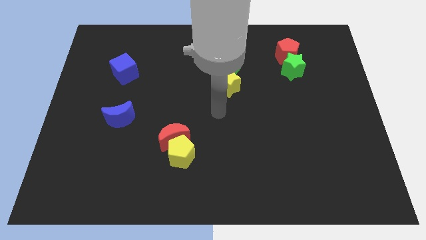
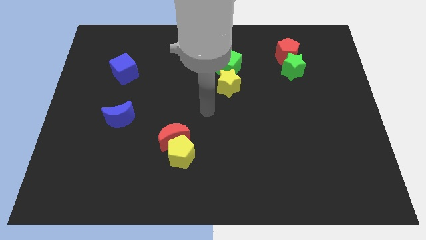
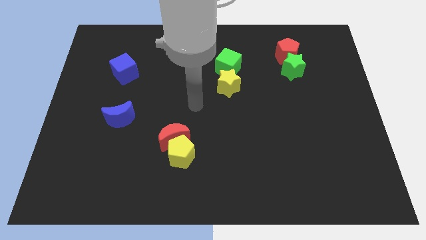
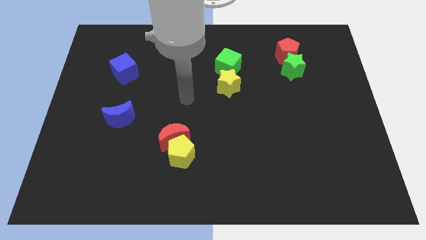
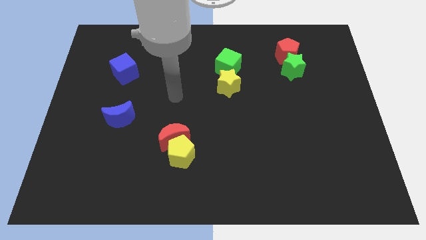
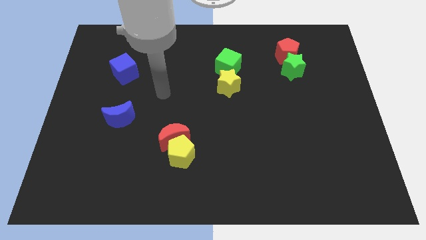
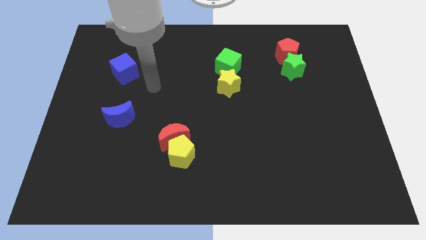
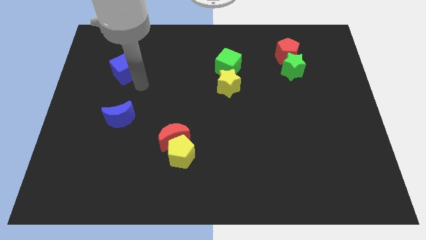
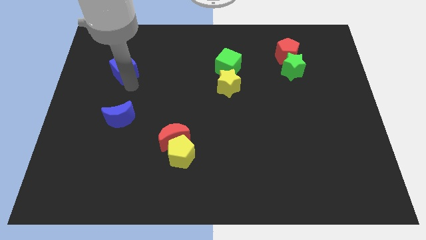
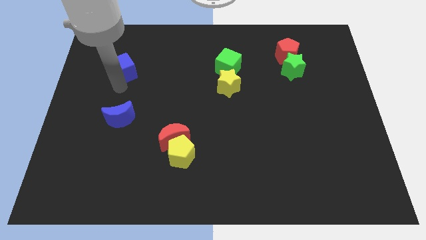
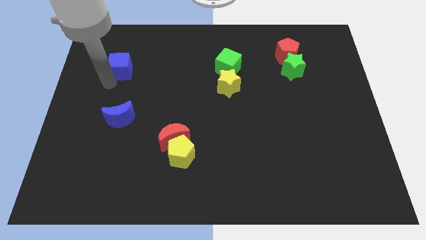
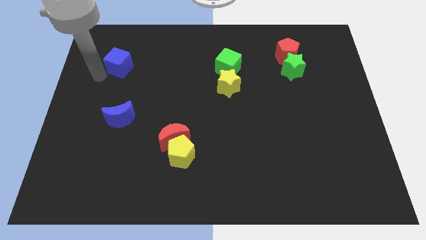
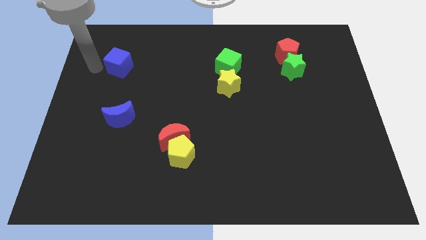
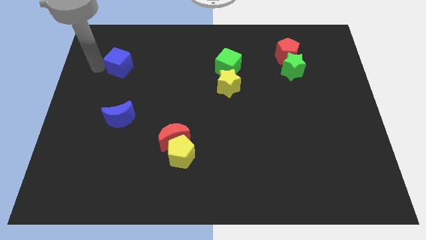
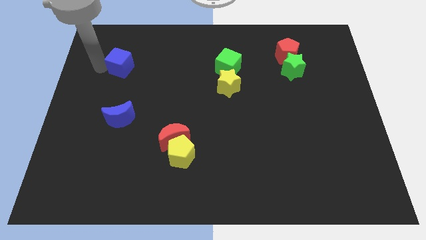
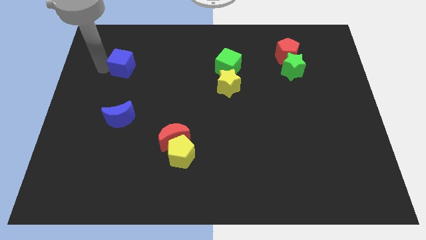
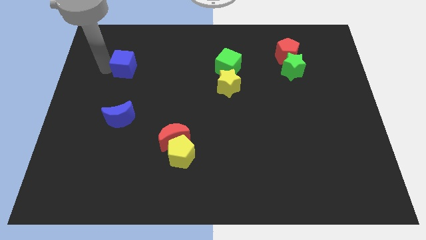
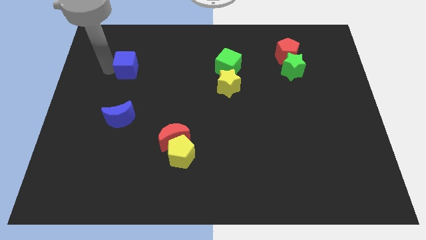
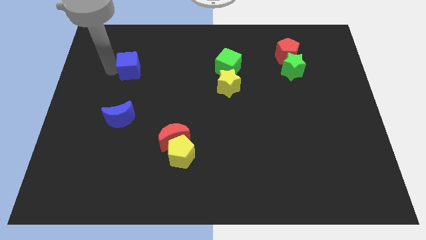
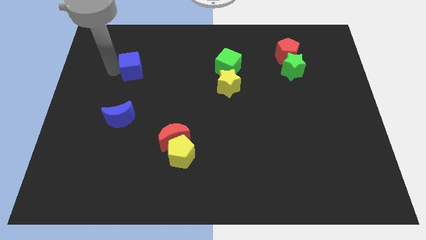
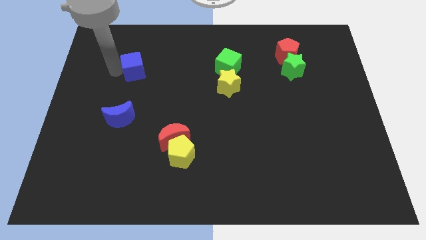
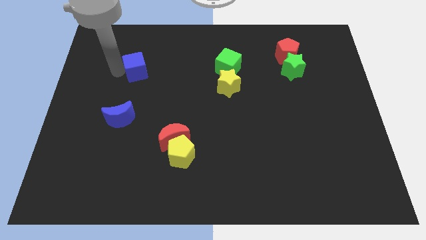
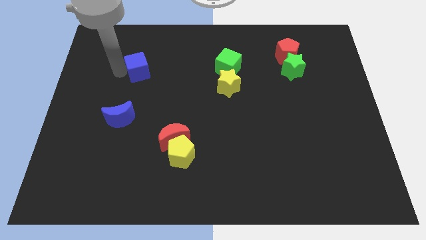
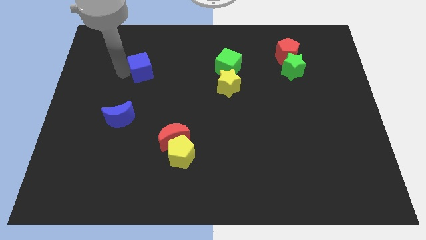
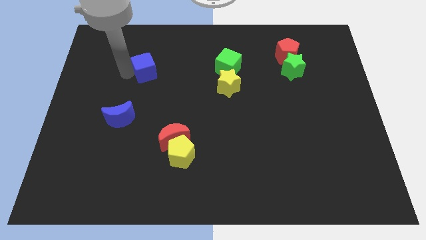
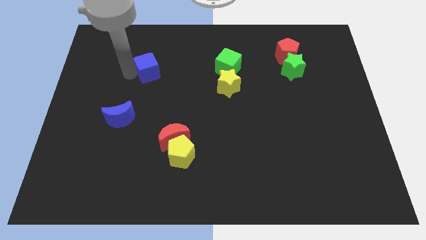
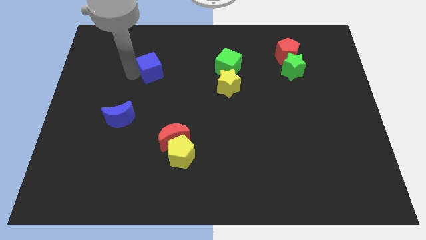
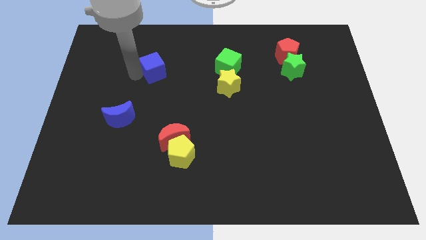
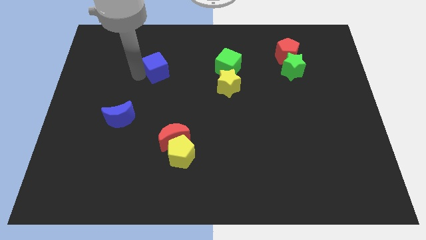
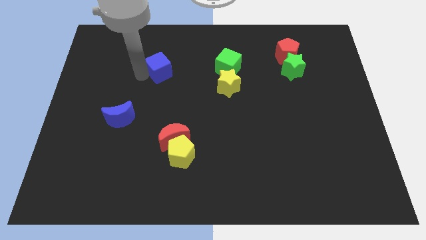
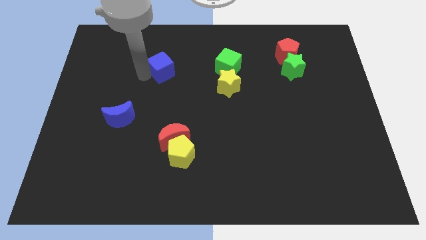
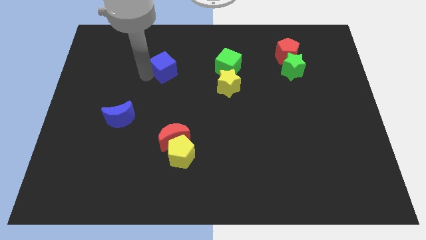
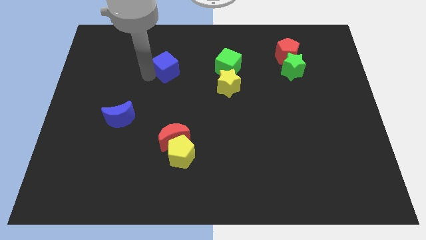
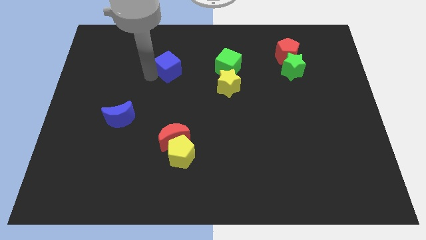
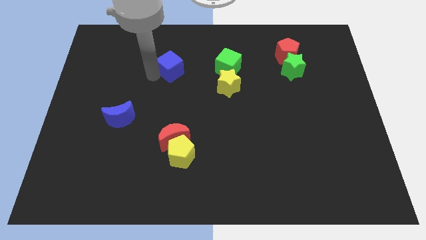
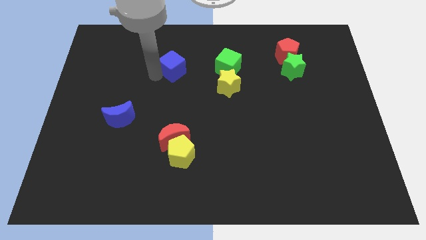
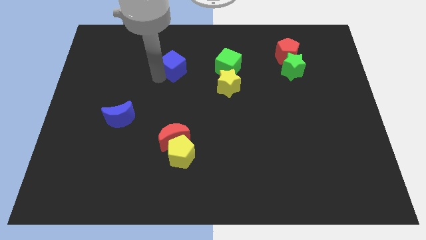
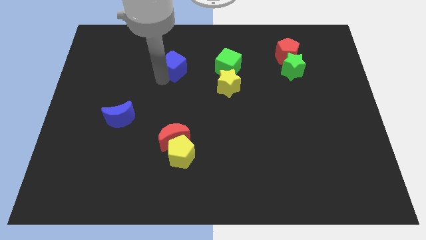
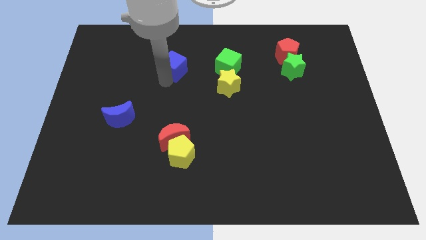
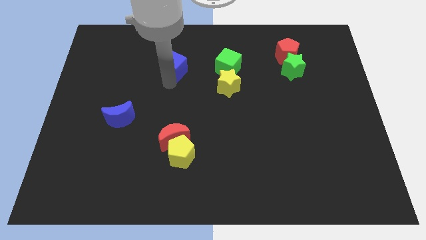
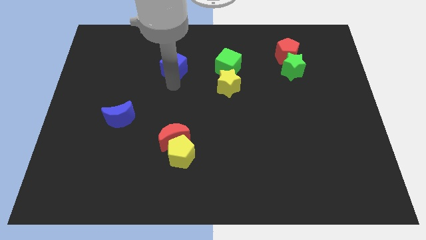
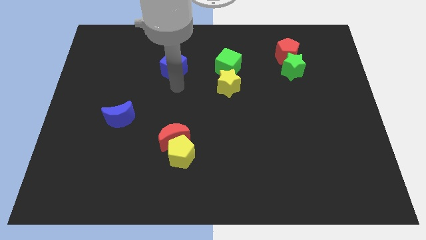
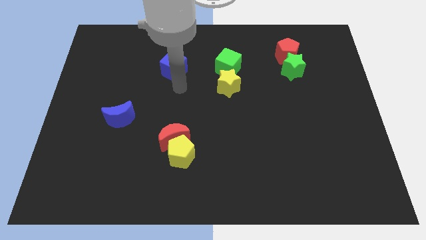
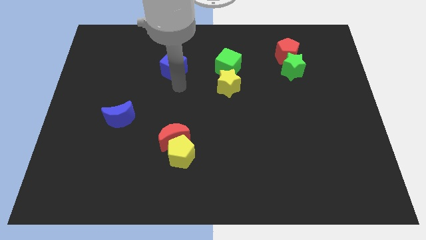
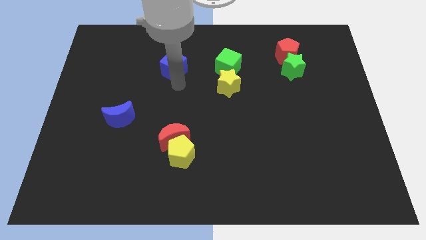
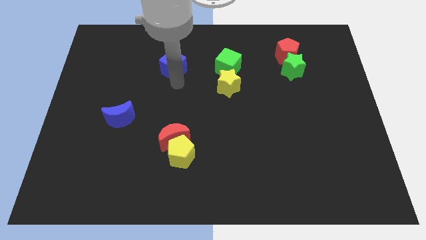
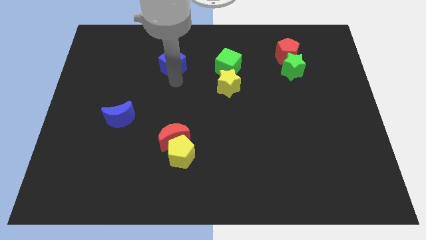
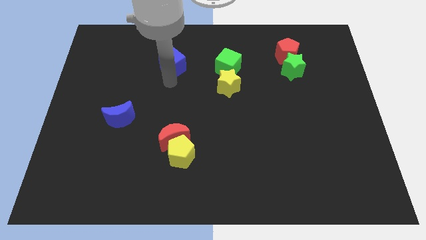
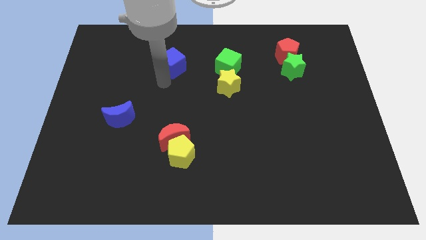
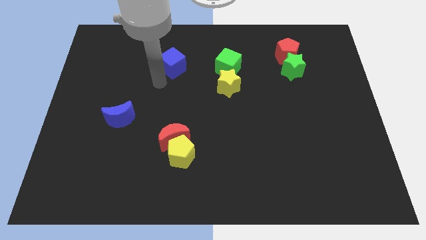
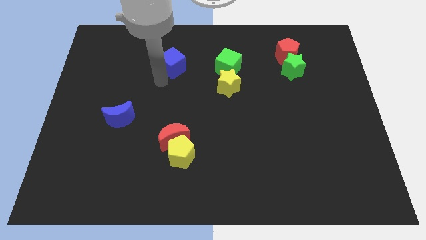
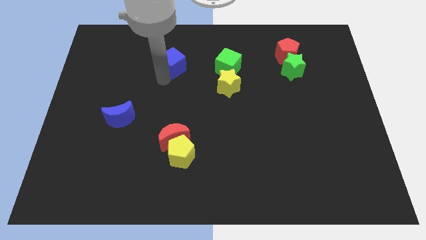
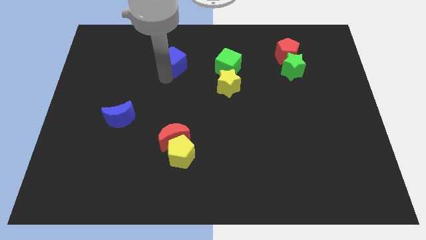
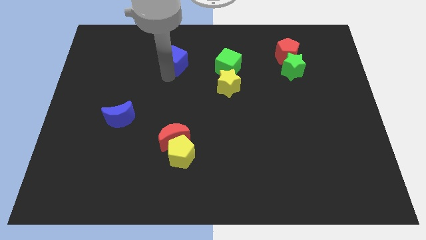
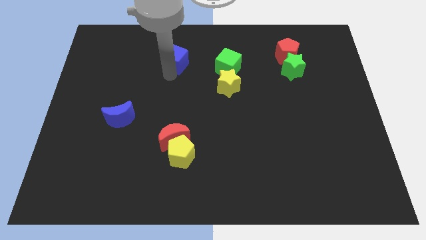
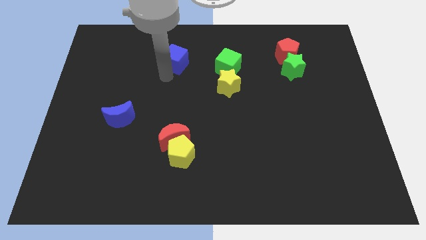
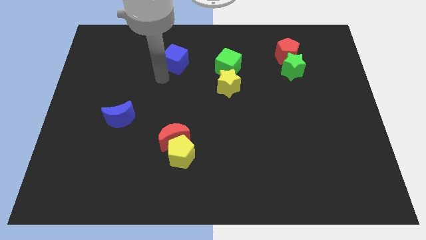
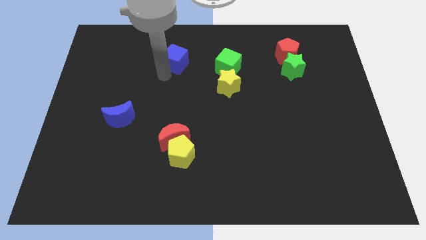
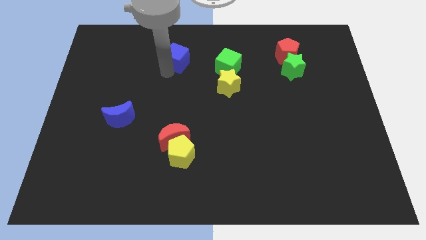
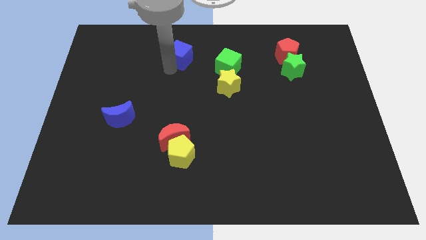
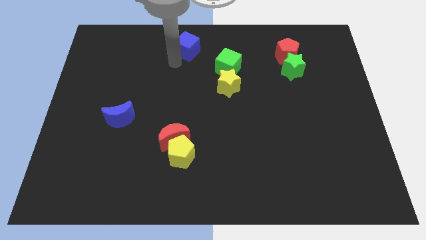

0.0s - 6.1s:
move the blue cube to the top

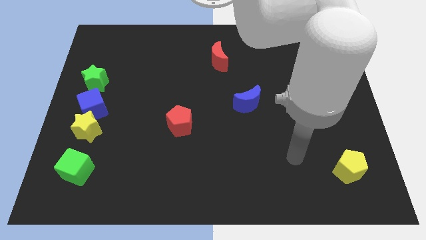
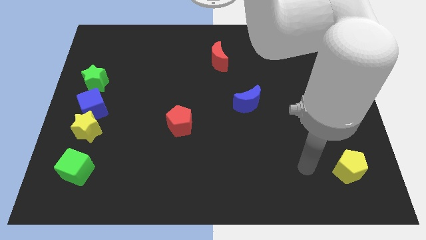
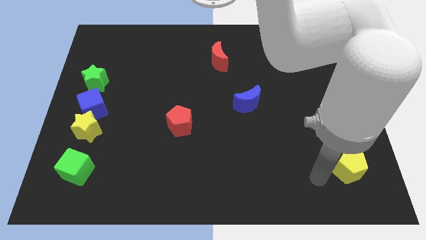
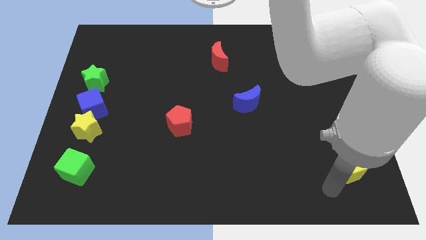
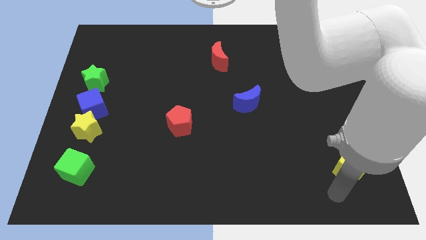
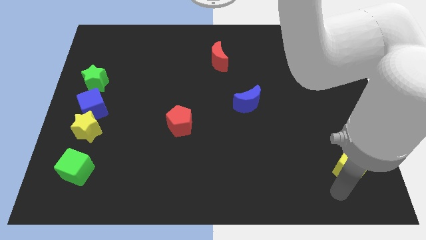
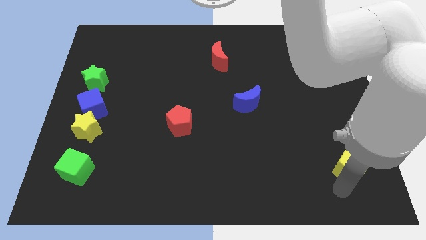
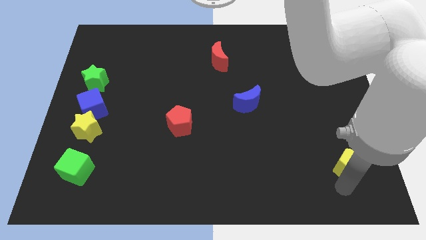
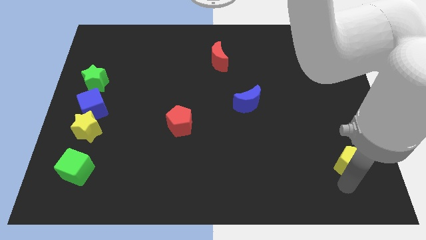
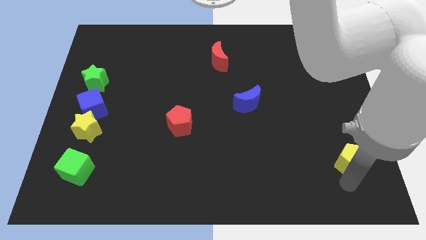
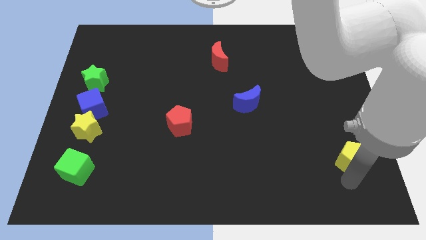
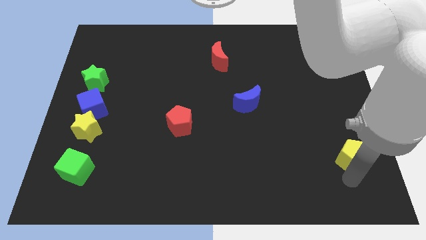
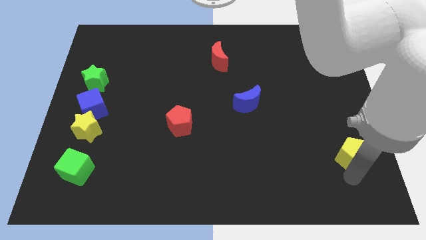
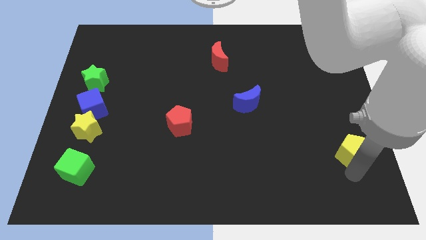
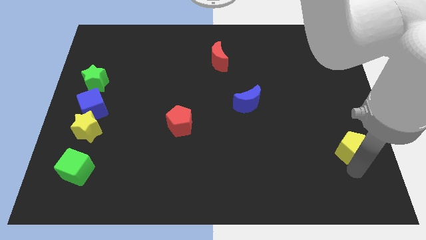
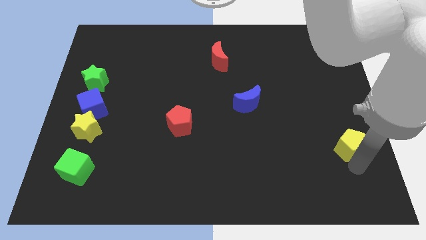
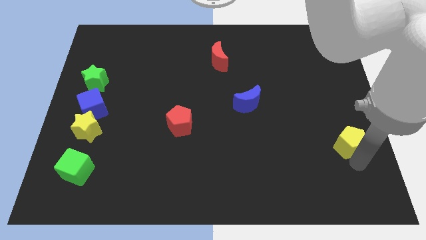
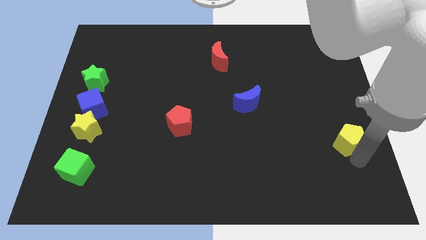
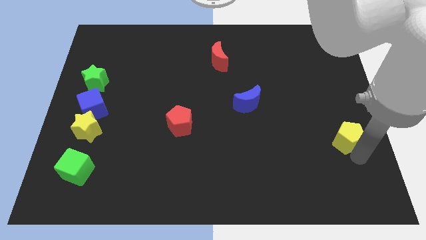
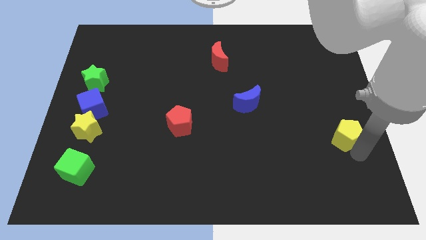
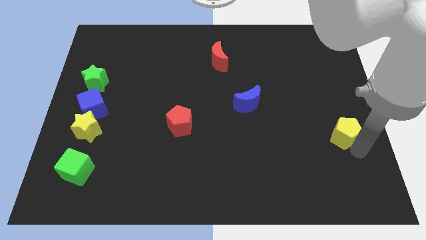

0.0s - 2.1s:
move the yellow pentagon to the center right
